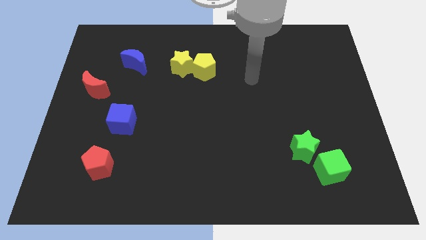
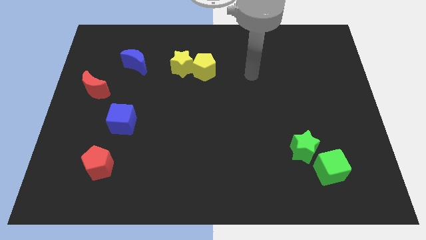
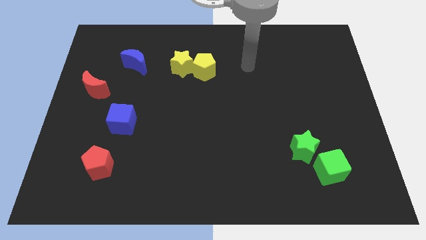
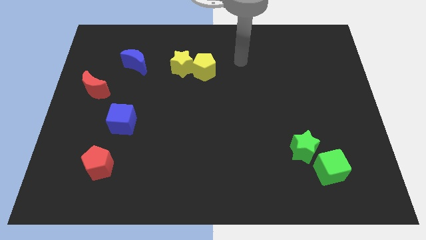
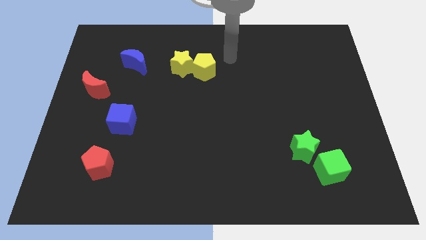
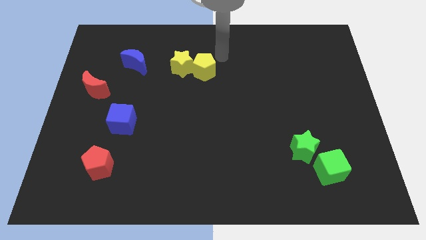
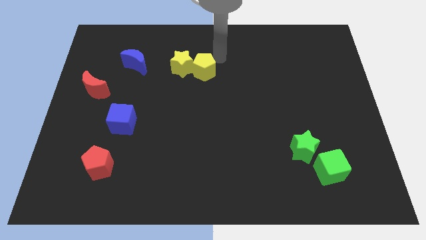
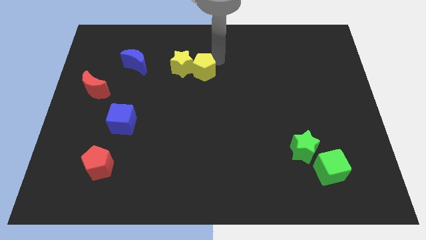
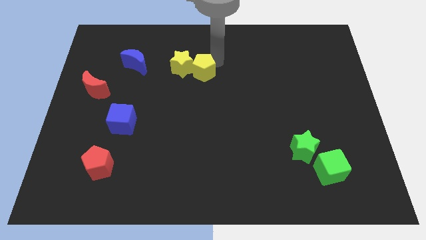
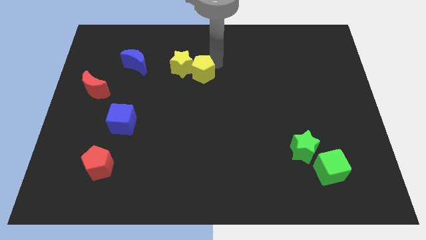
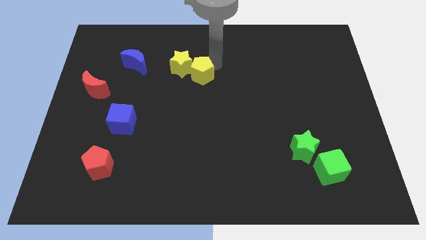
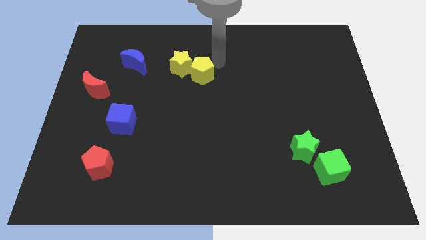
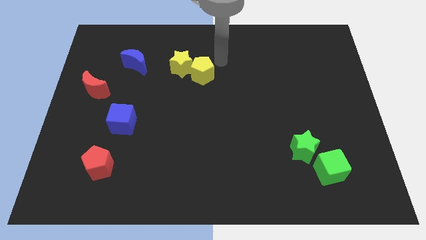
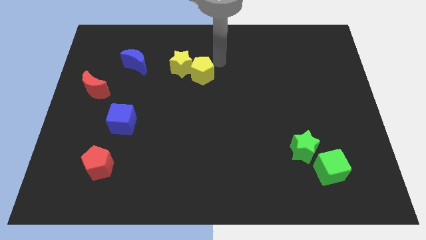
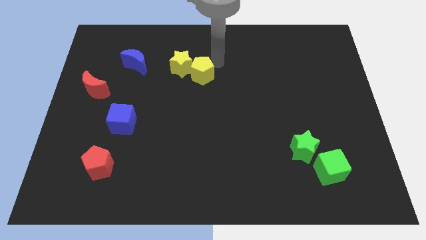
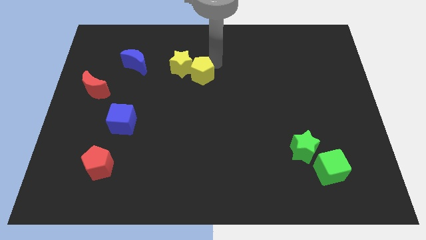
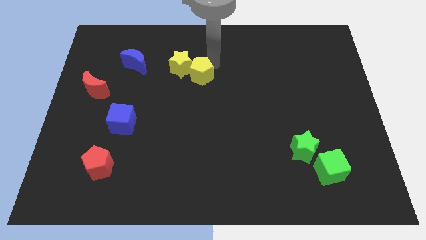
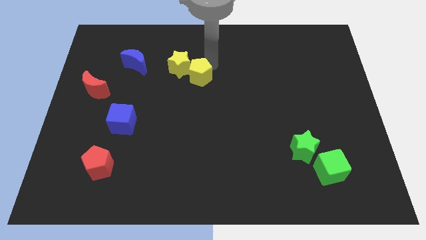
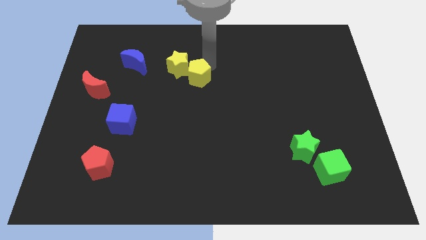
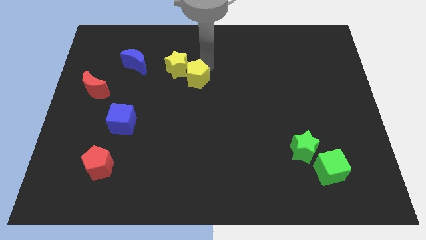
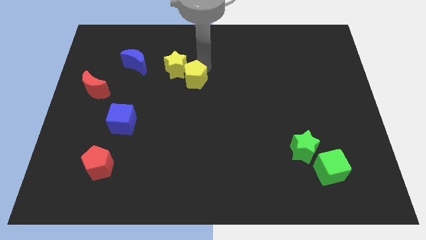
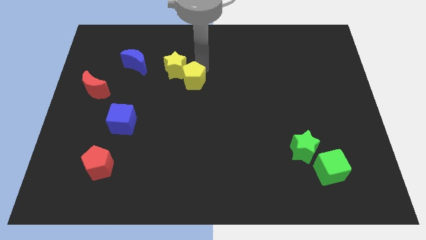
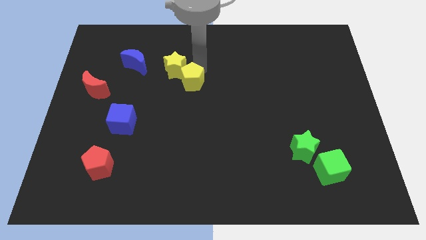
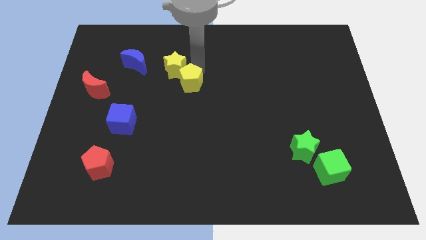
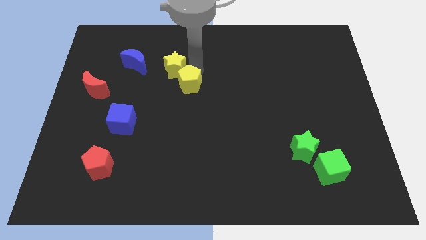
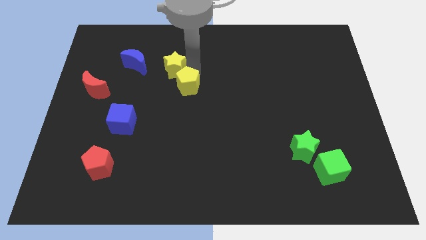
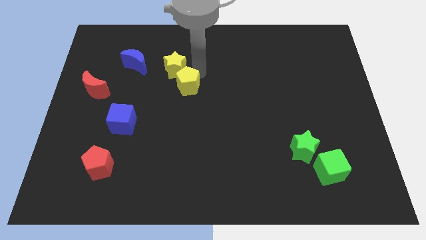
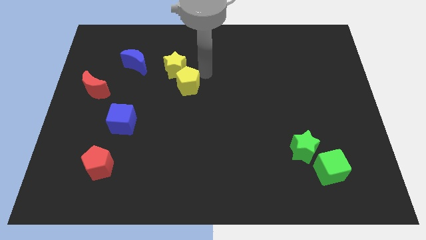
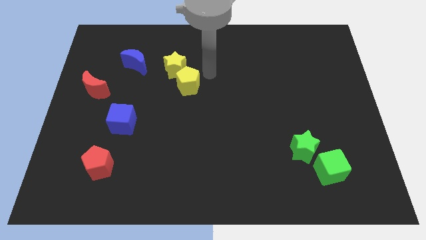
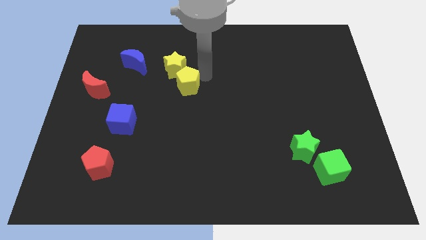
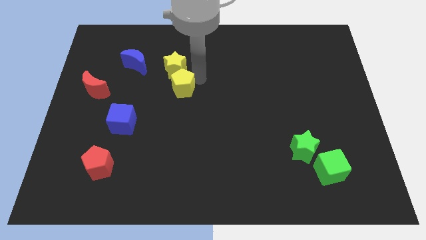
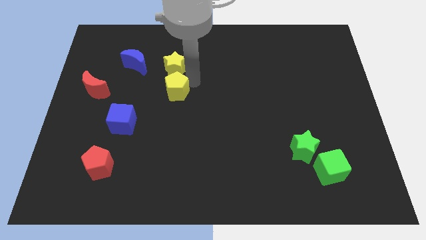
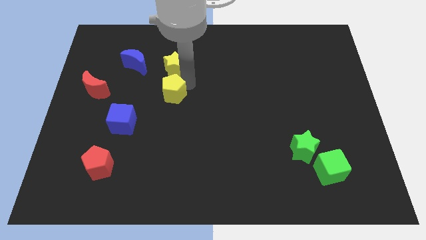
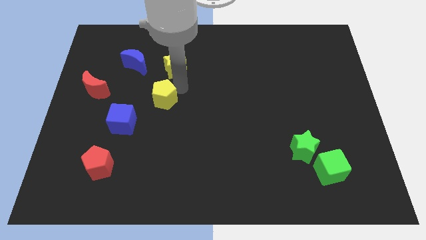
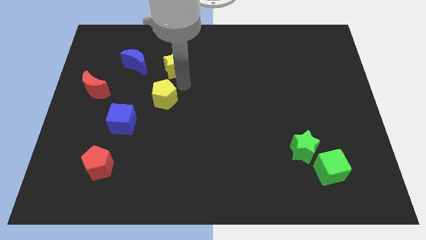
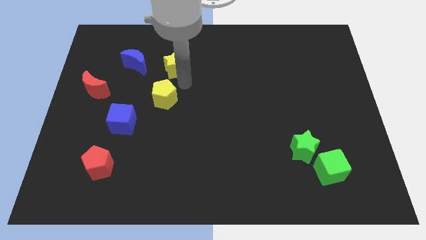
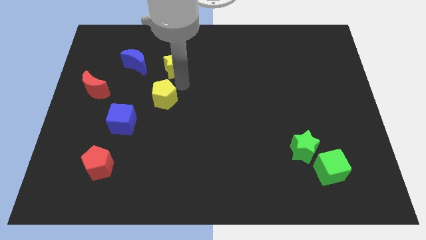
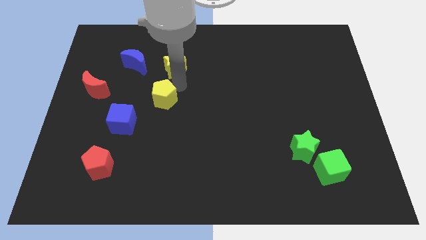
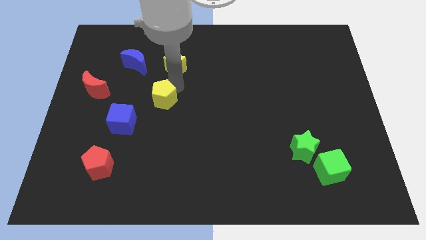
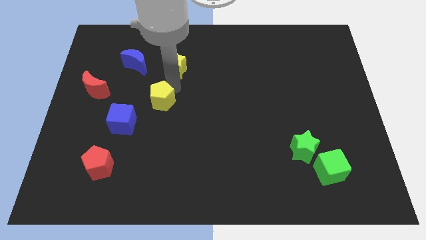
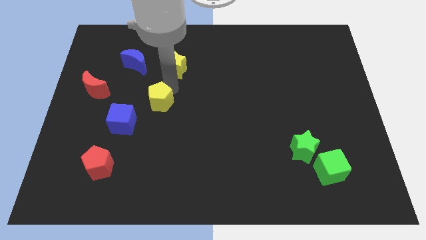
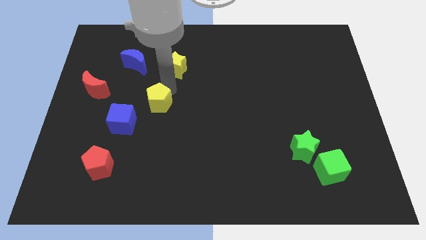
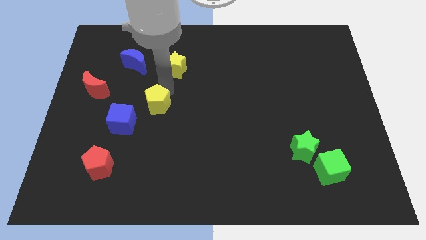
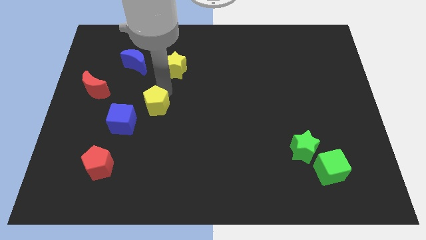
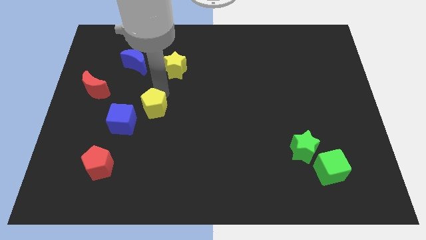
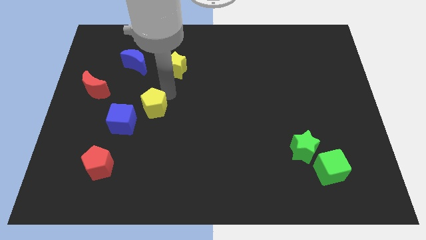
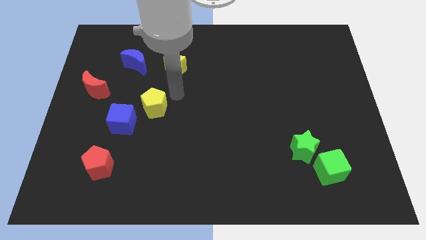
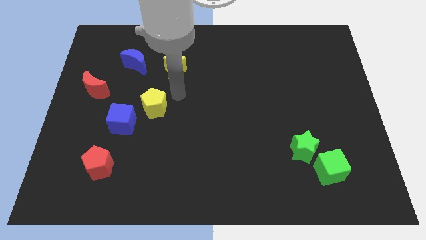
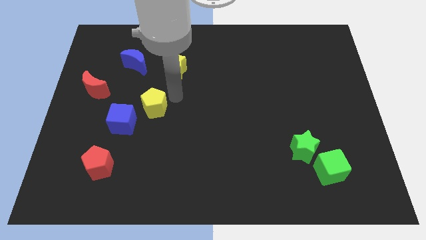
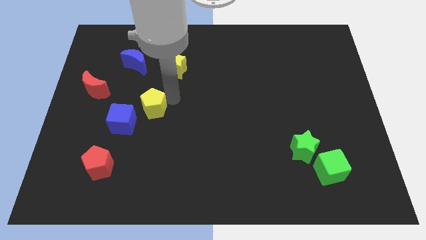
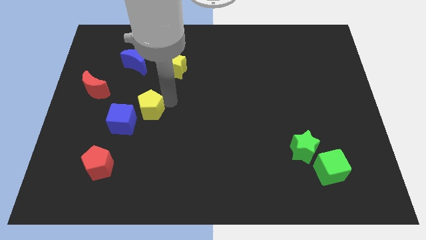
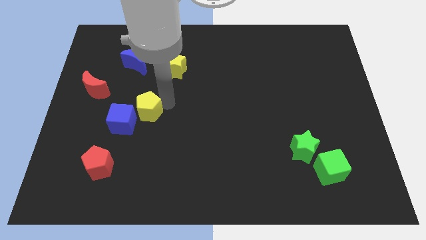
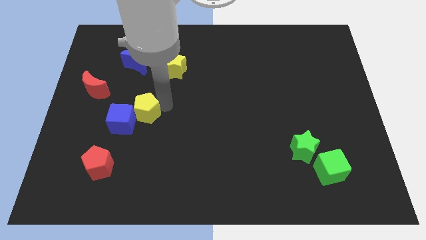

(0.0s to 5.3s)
put the yellow pentagon close to the blue cube

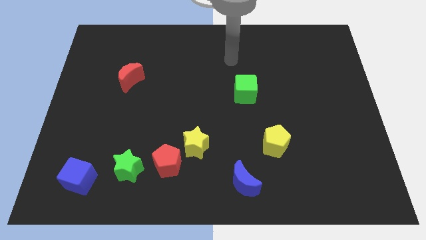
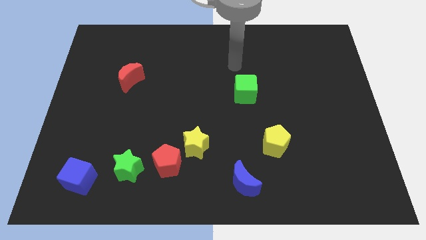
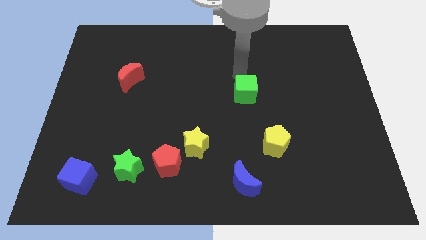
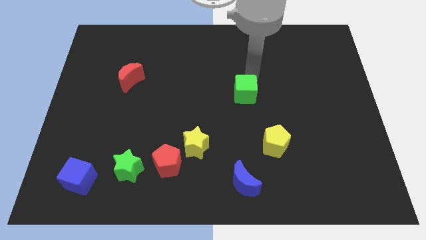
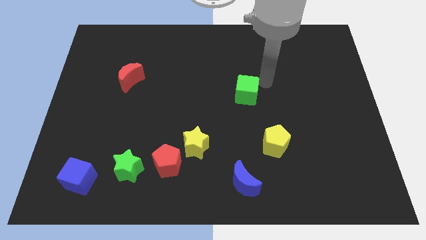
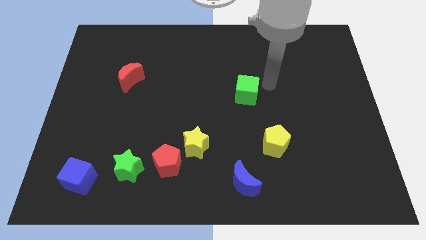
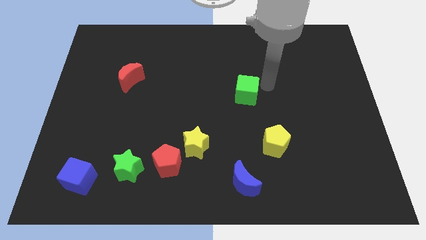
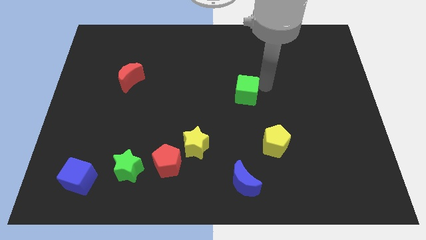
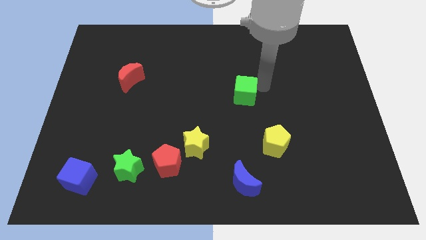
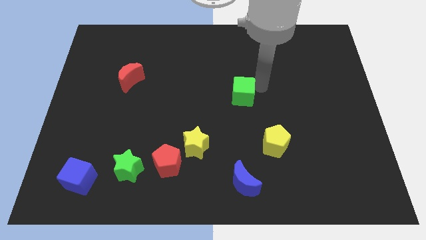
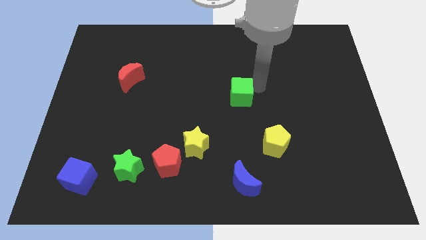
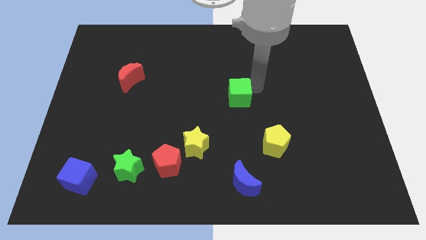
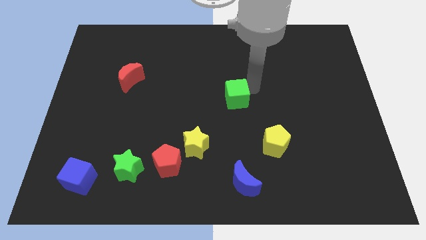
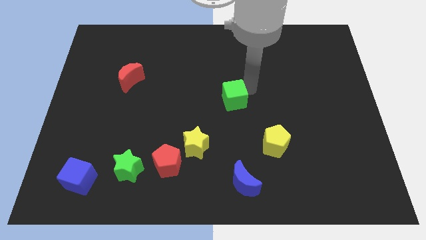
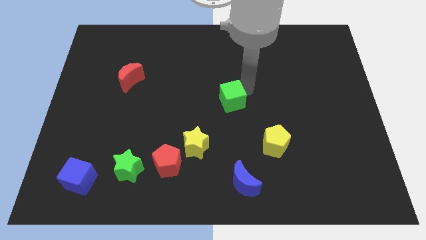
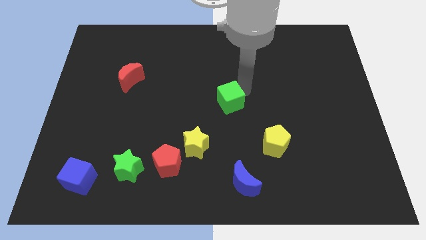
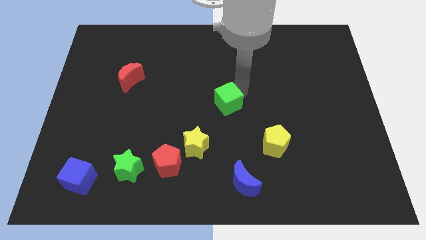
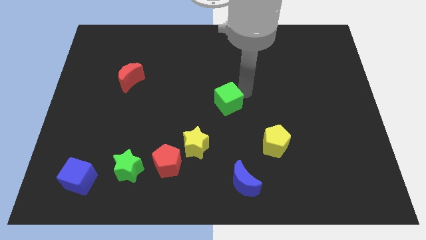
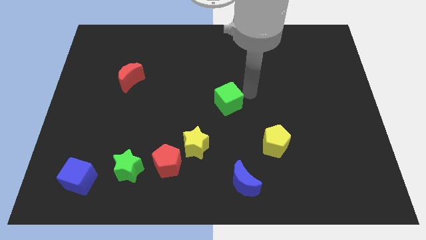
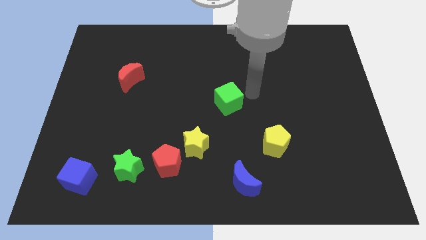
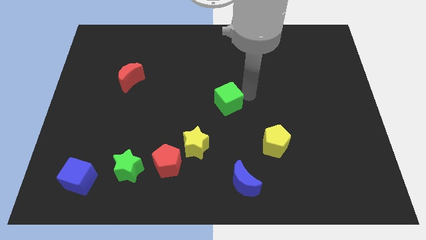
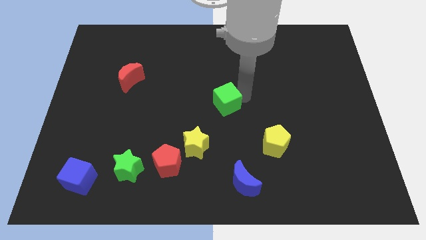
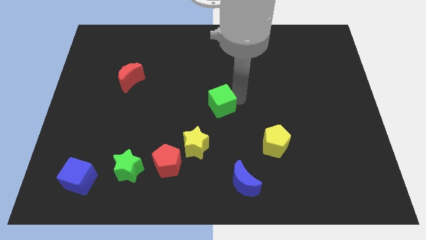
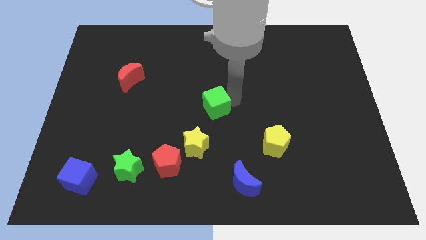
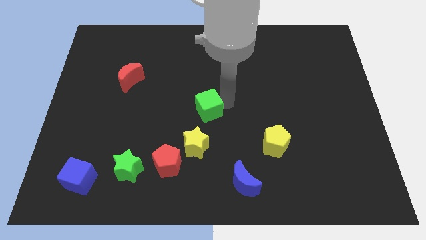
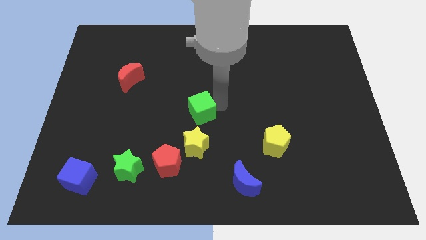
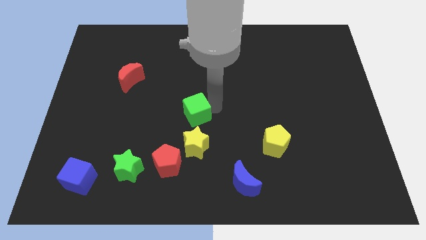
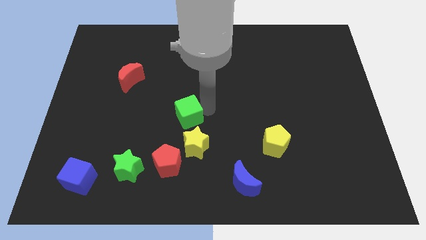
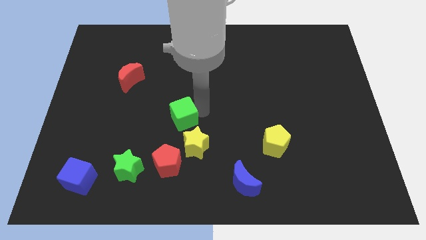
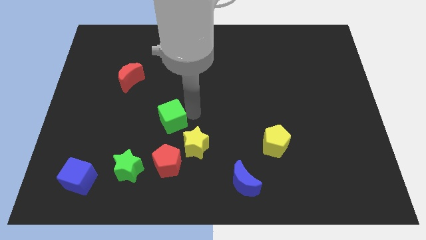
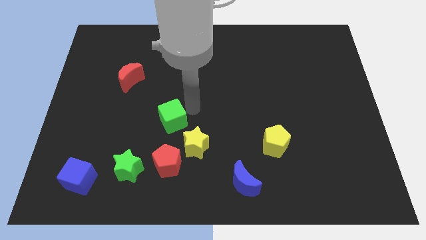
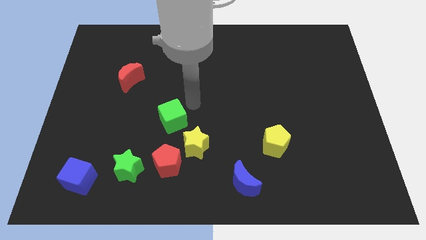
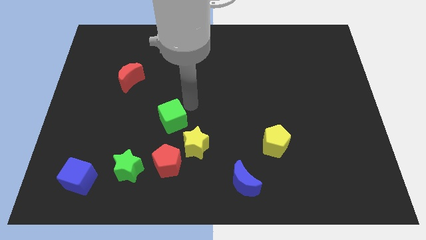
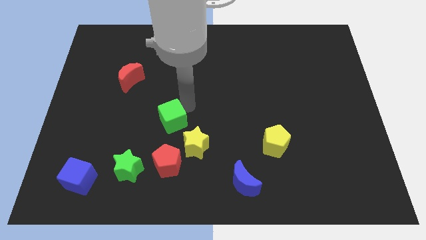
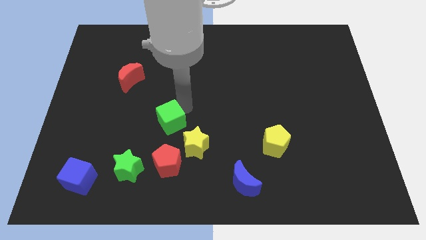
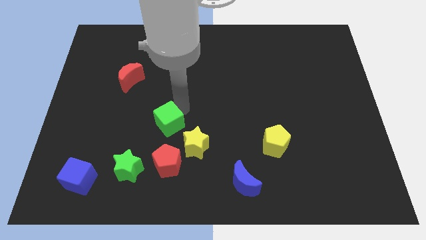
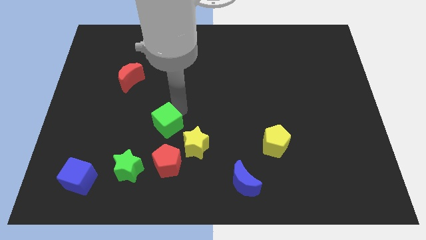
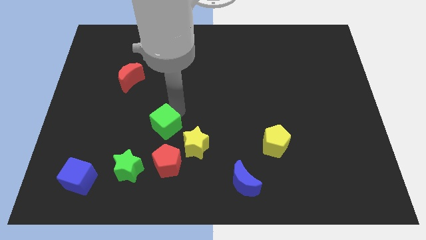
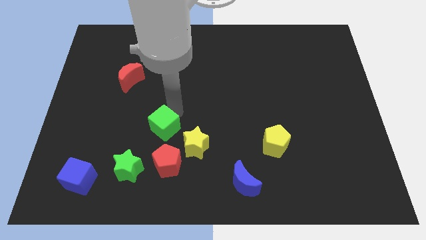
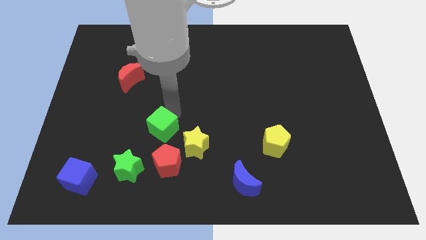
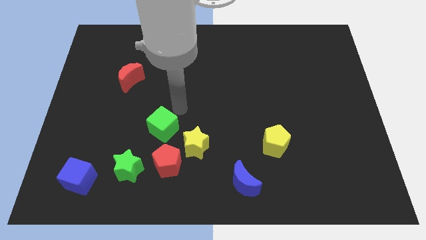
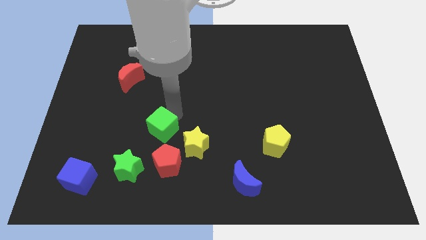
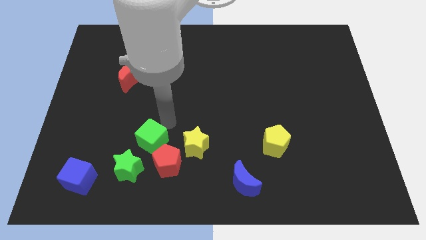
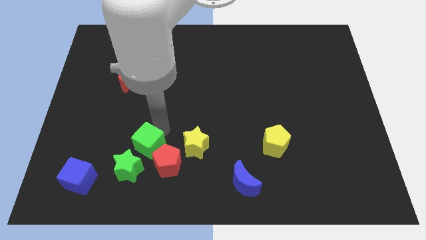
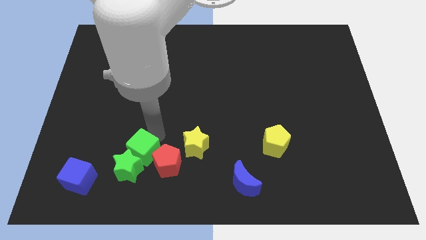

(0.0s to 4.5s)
slide the green cube next to the green star
